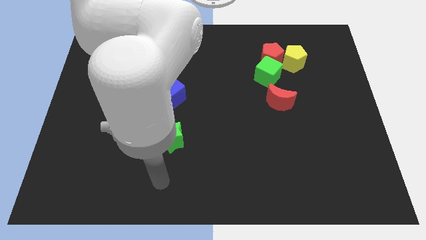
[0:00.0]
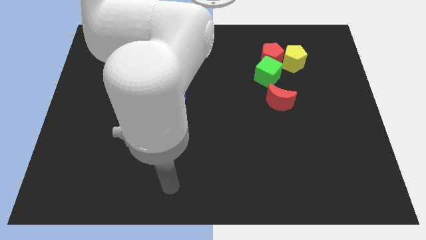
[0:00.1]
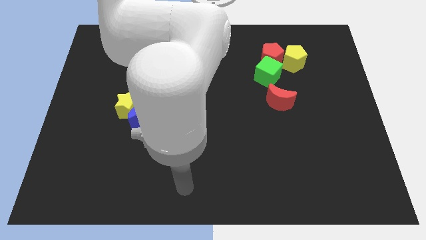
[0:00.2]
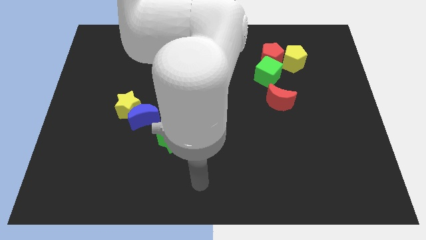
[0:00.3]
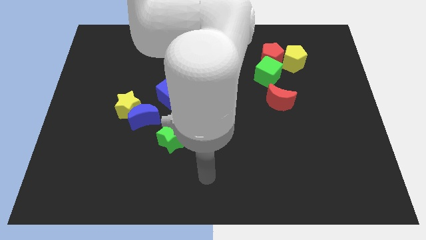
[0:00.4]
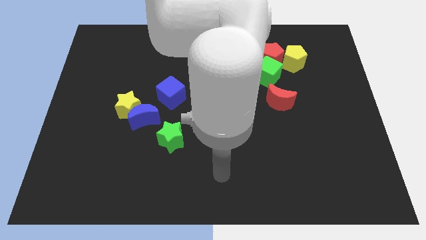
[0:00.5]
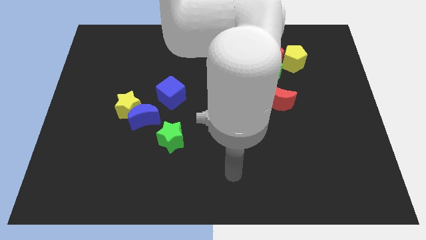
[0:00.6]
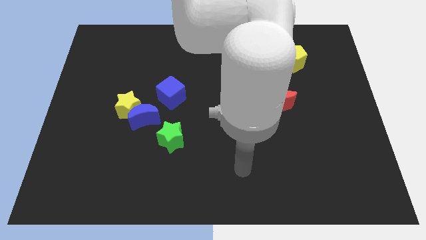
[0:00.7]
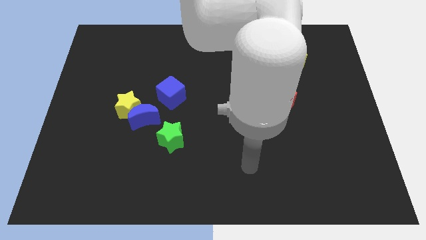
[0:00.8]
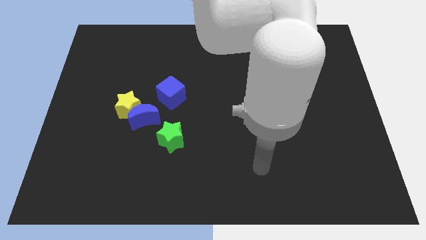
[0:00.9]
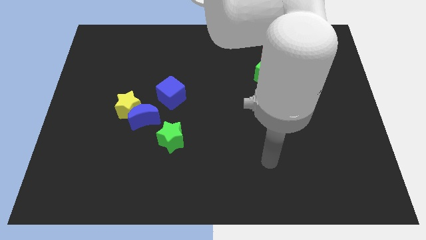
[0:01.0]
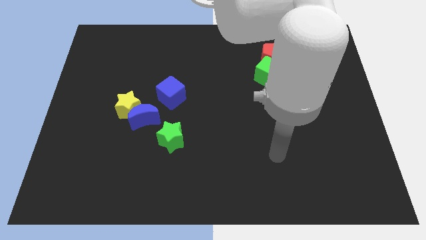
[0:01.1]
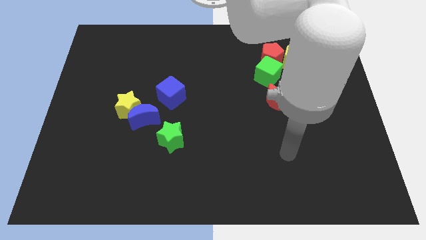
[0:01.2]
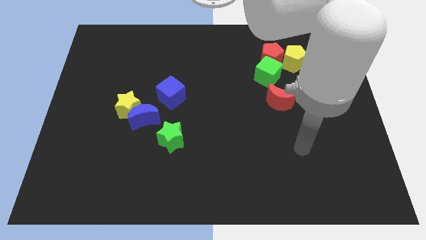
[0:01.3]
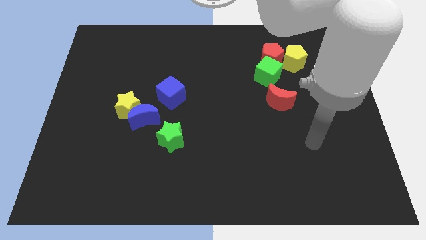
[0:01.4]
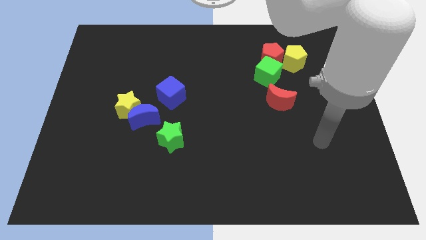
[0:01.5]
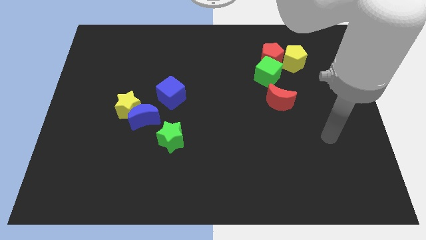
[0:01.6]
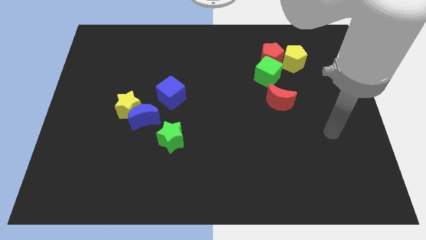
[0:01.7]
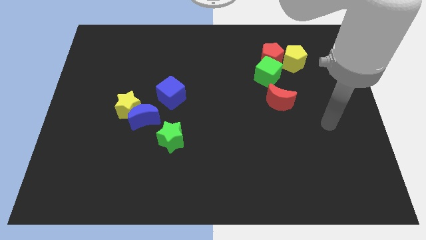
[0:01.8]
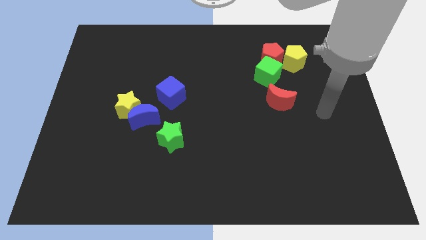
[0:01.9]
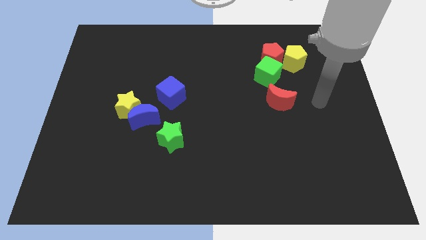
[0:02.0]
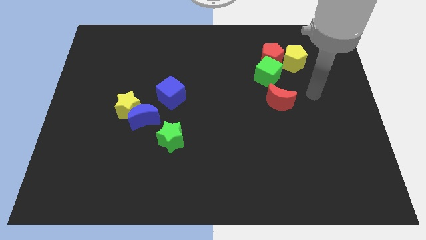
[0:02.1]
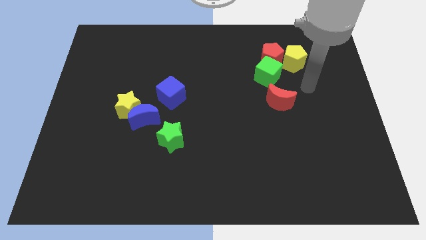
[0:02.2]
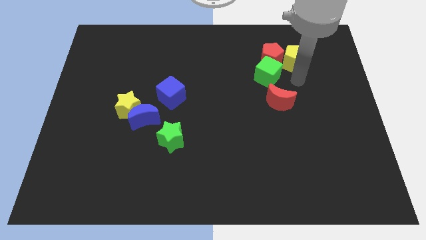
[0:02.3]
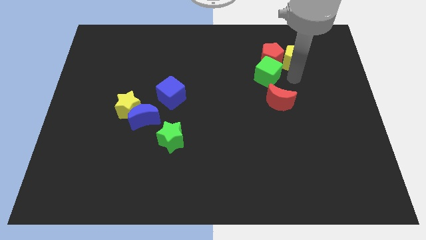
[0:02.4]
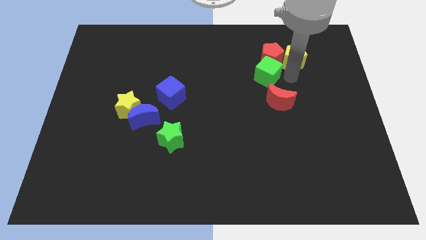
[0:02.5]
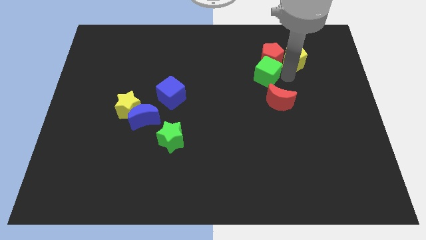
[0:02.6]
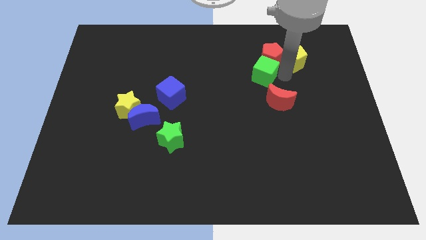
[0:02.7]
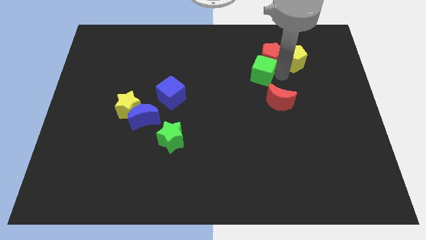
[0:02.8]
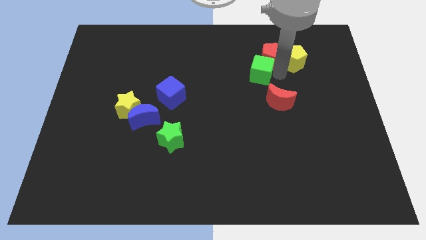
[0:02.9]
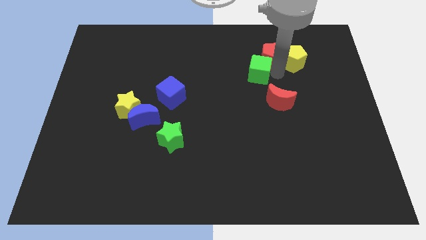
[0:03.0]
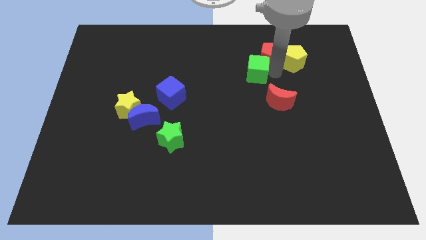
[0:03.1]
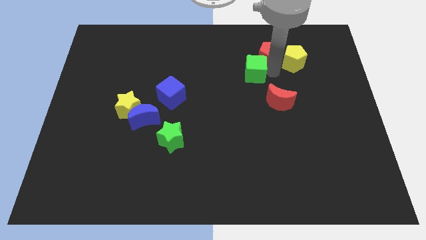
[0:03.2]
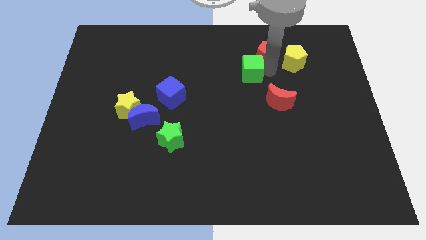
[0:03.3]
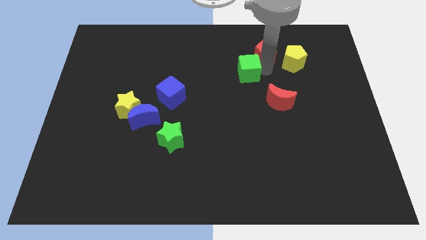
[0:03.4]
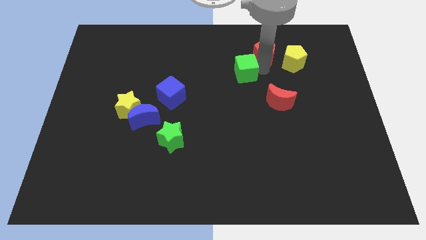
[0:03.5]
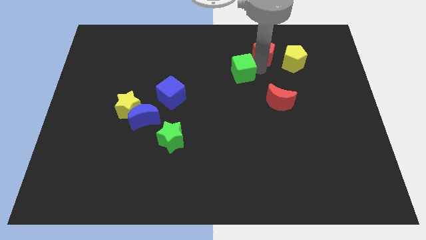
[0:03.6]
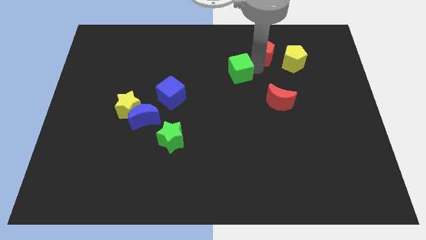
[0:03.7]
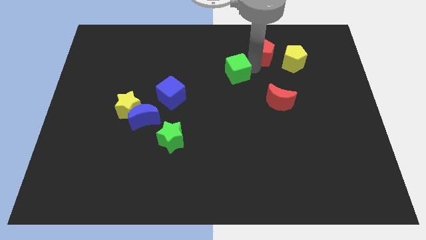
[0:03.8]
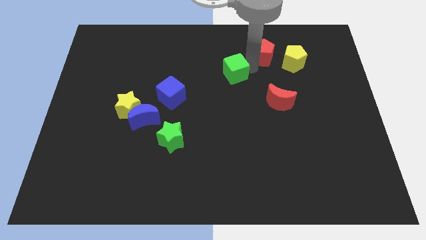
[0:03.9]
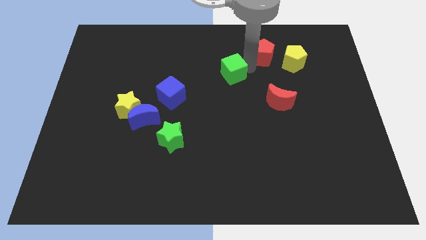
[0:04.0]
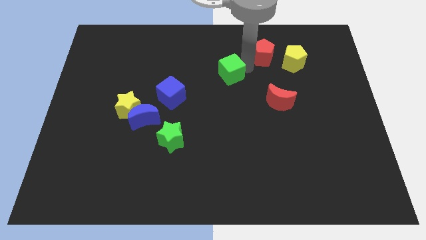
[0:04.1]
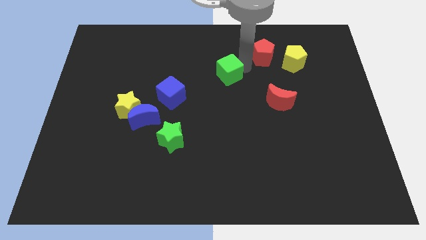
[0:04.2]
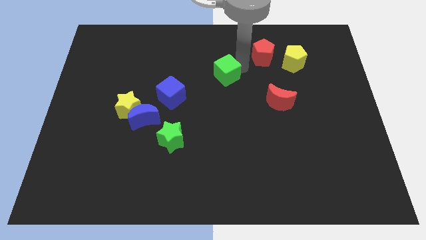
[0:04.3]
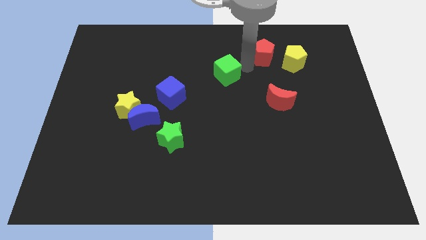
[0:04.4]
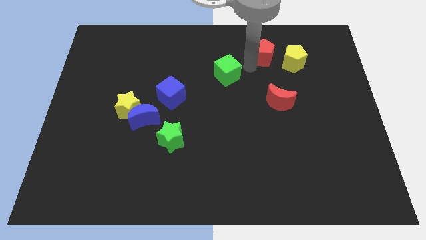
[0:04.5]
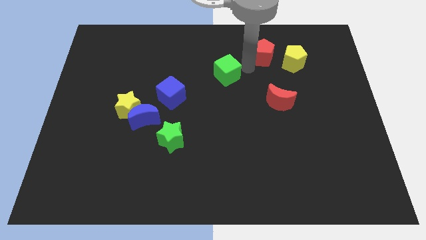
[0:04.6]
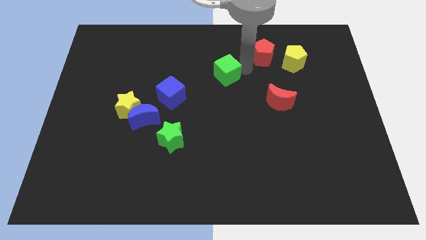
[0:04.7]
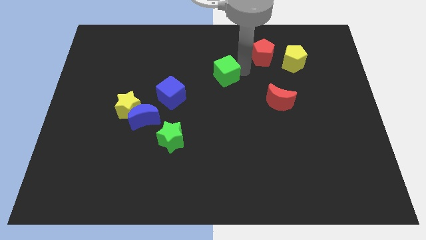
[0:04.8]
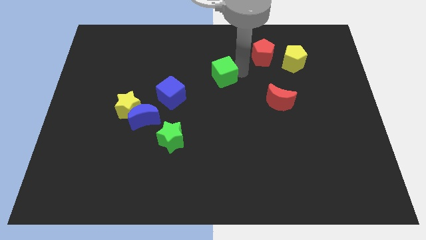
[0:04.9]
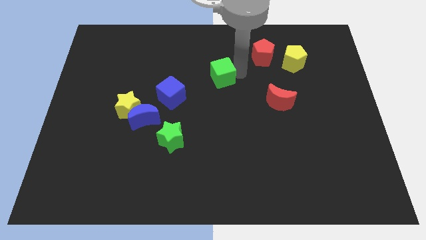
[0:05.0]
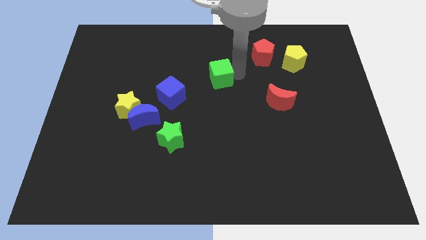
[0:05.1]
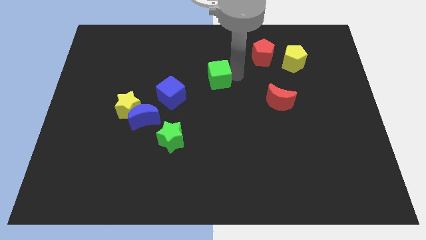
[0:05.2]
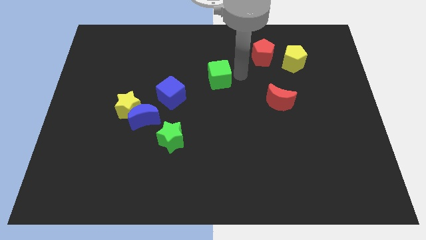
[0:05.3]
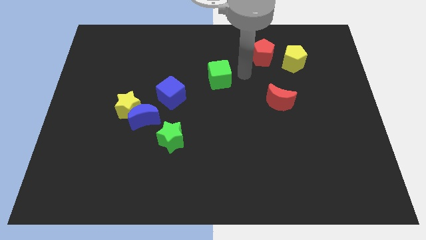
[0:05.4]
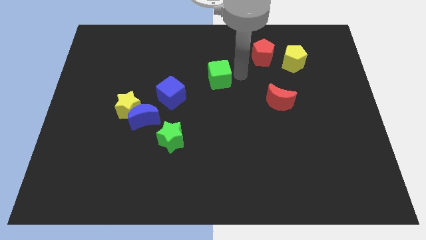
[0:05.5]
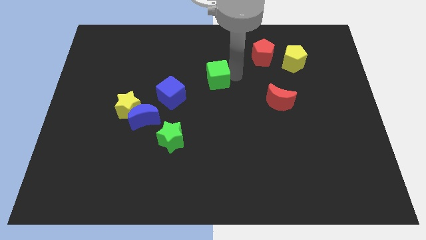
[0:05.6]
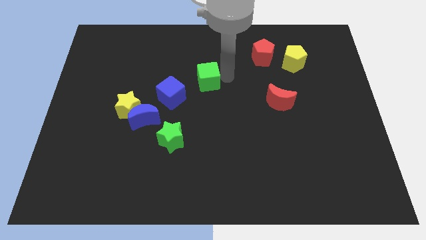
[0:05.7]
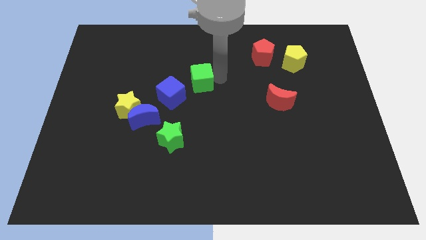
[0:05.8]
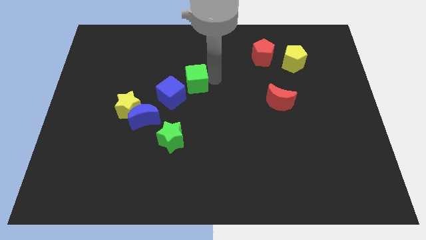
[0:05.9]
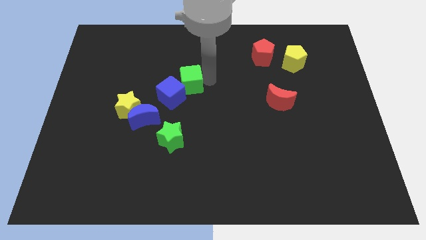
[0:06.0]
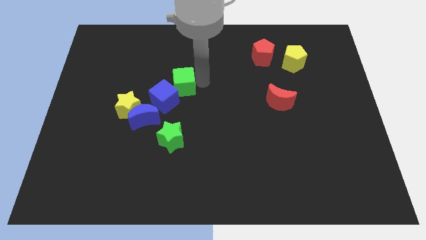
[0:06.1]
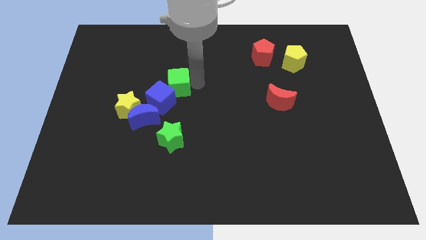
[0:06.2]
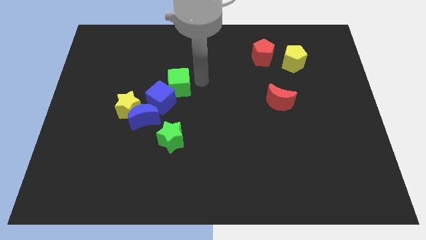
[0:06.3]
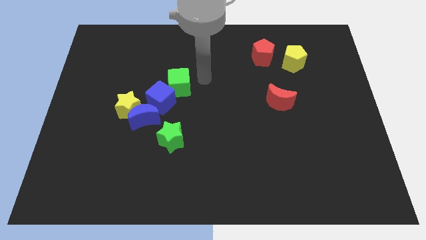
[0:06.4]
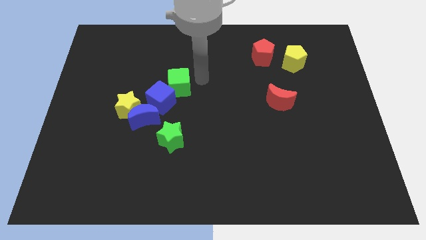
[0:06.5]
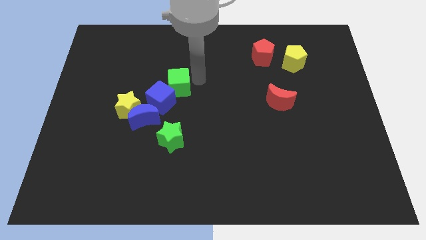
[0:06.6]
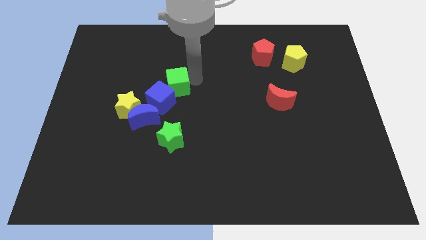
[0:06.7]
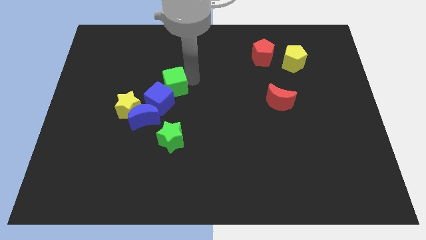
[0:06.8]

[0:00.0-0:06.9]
move the green cube to the top right of the yellow star
